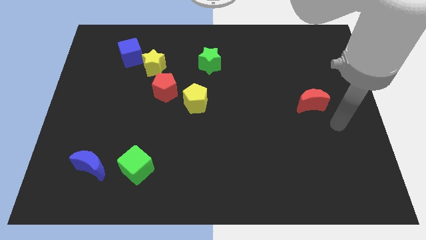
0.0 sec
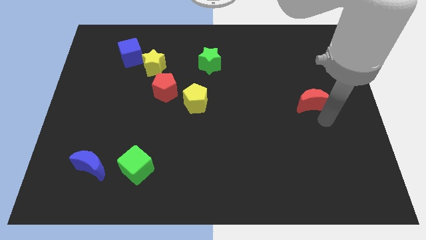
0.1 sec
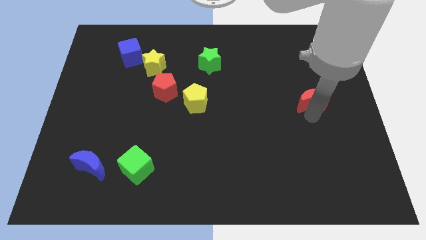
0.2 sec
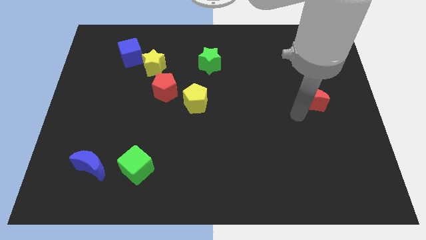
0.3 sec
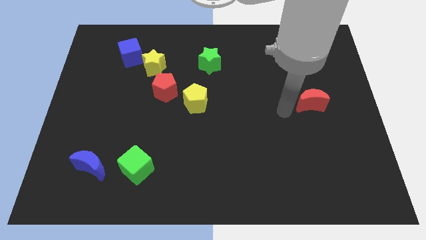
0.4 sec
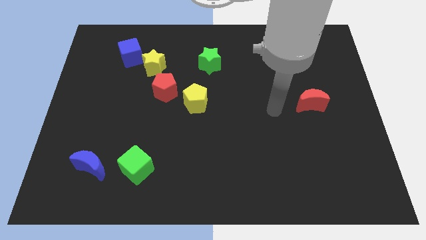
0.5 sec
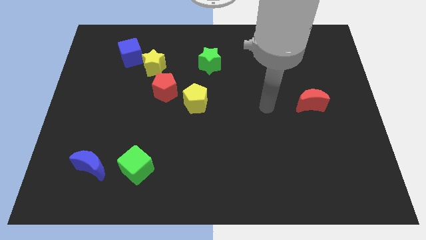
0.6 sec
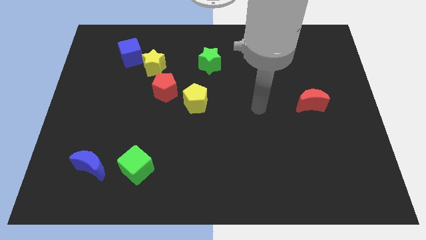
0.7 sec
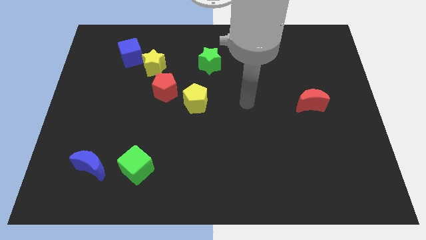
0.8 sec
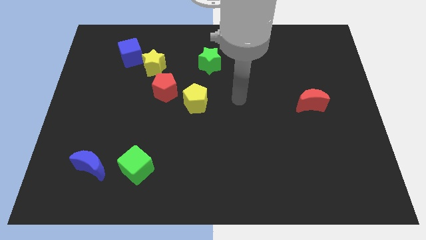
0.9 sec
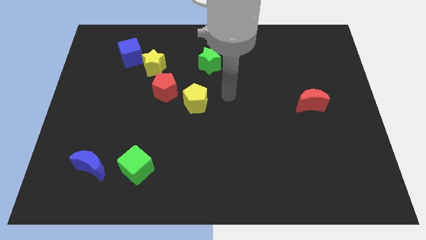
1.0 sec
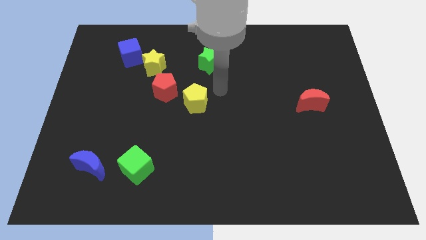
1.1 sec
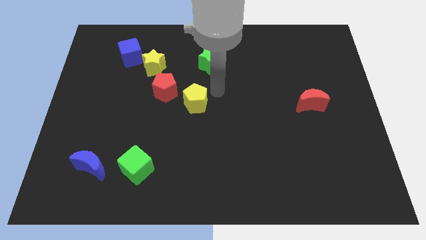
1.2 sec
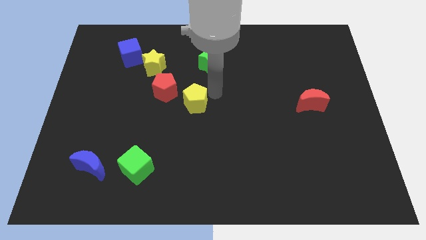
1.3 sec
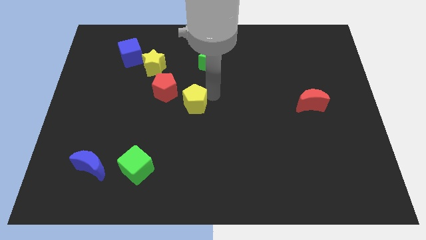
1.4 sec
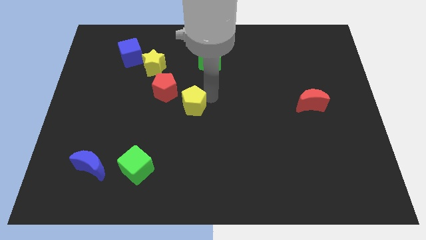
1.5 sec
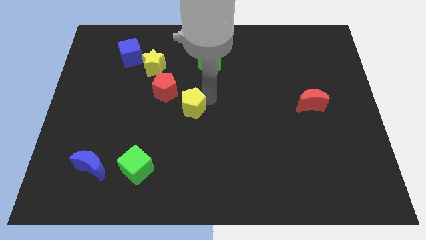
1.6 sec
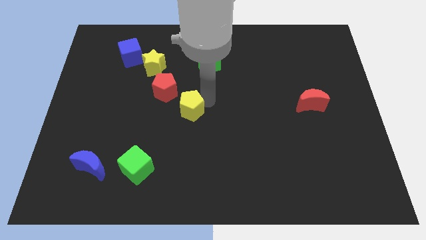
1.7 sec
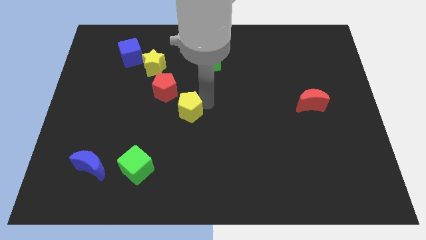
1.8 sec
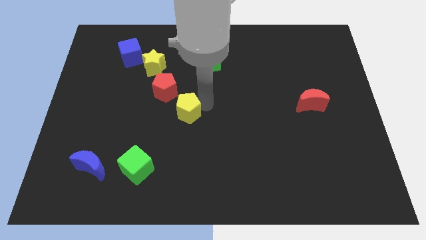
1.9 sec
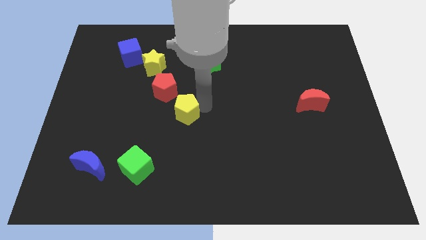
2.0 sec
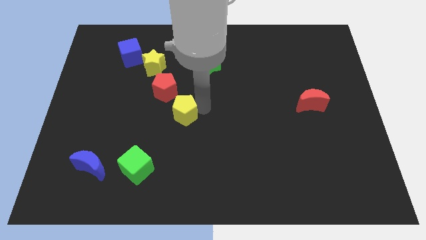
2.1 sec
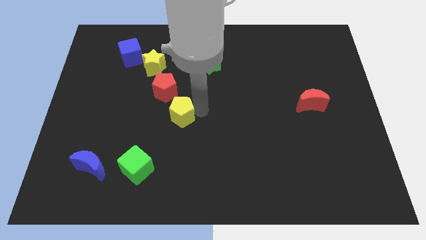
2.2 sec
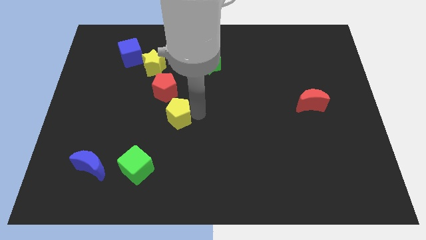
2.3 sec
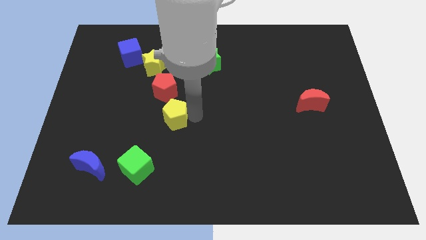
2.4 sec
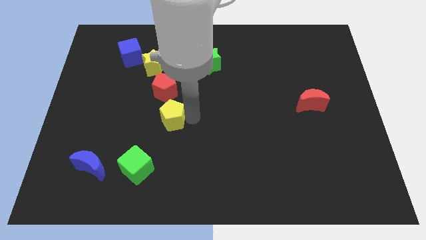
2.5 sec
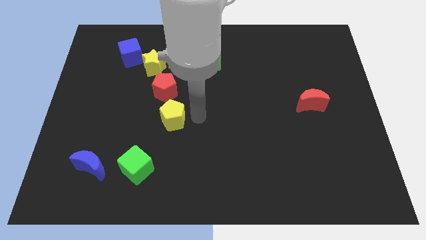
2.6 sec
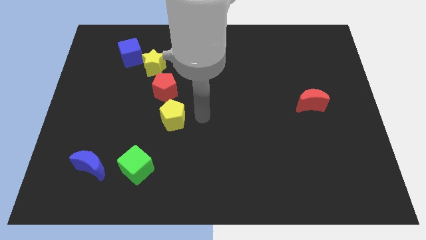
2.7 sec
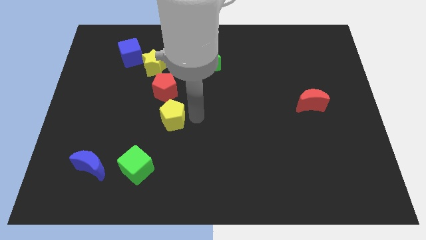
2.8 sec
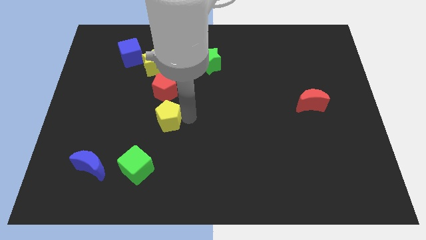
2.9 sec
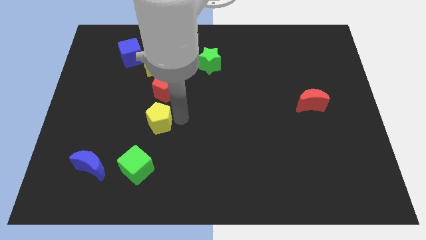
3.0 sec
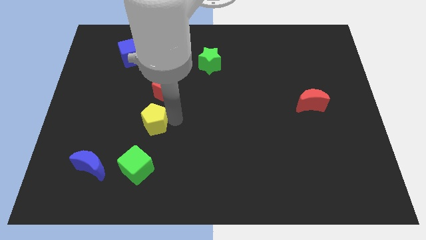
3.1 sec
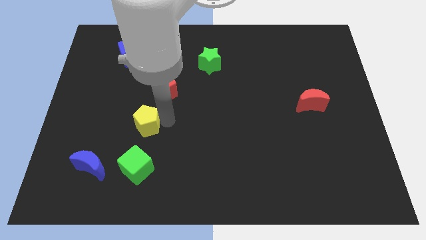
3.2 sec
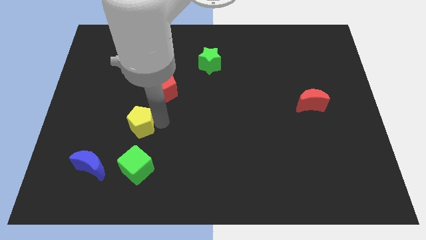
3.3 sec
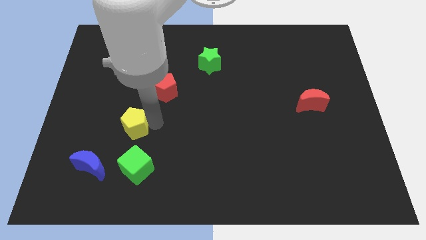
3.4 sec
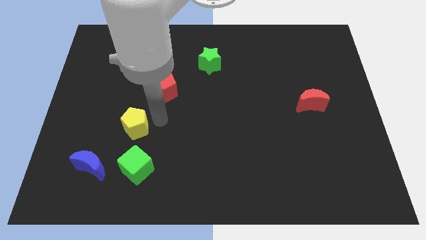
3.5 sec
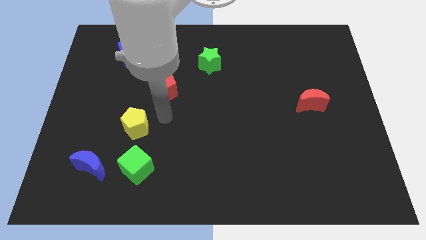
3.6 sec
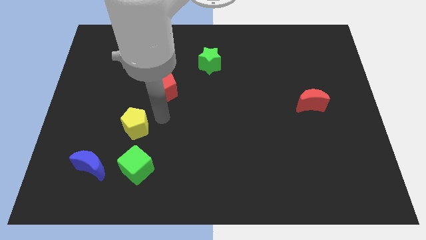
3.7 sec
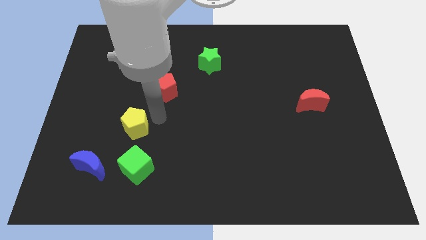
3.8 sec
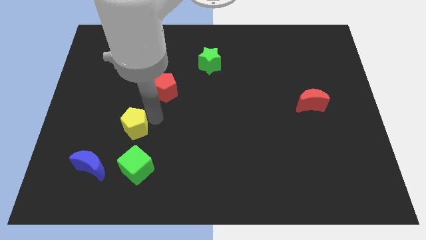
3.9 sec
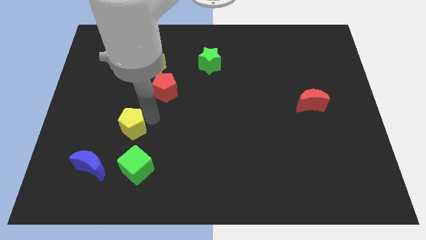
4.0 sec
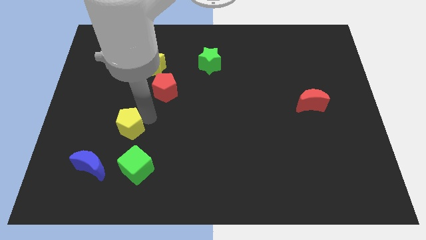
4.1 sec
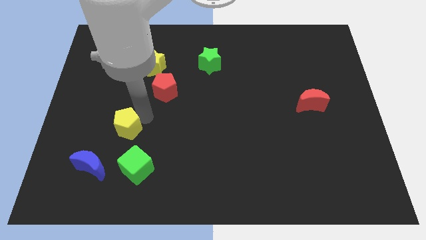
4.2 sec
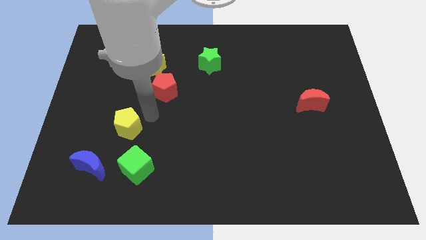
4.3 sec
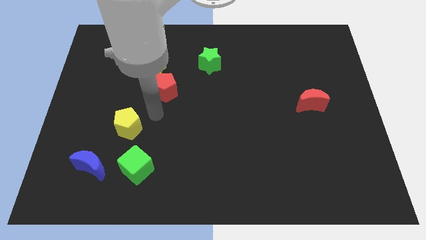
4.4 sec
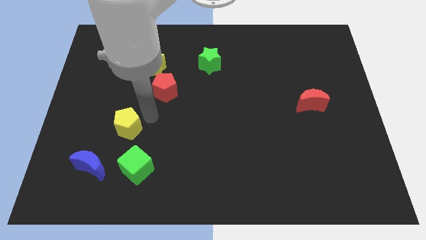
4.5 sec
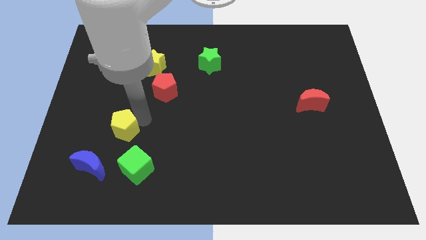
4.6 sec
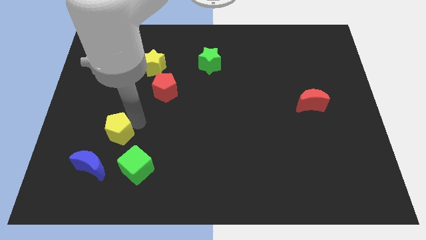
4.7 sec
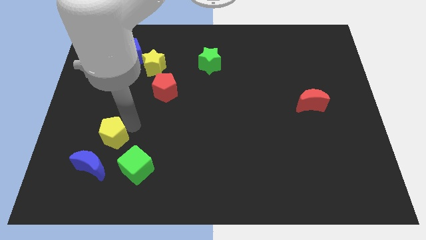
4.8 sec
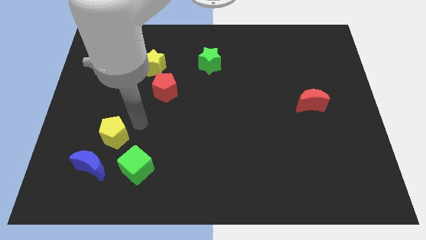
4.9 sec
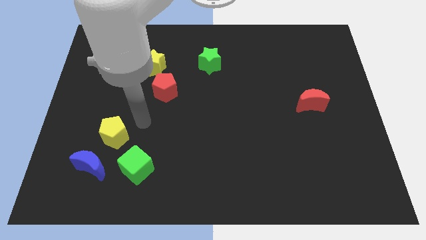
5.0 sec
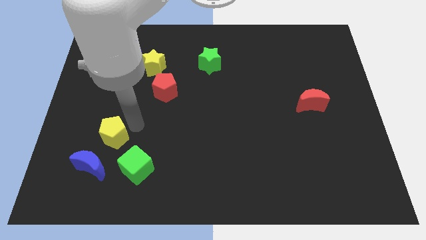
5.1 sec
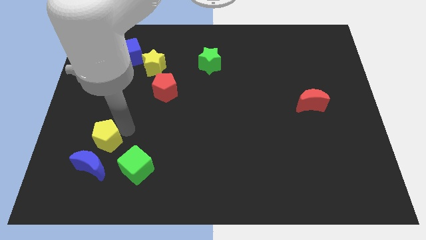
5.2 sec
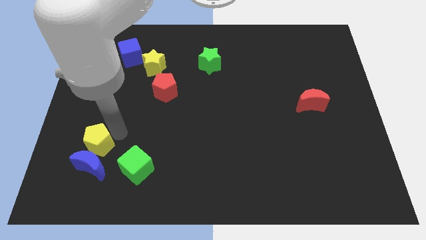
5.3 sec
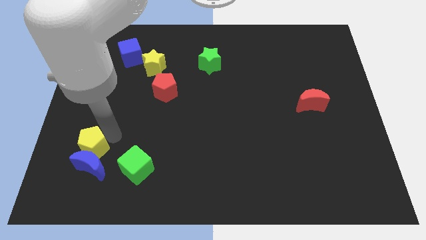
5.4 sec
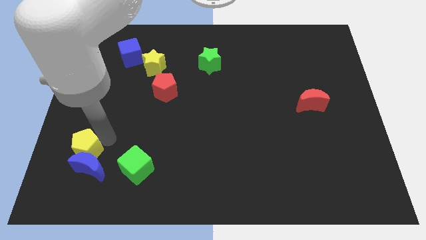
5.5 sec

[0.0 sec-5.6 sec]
slide the yellow pentagon left of the green cube

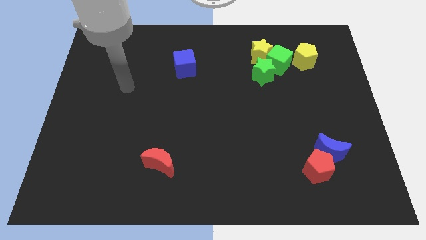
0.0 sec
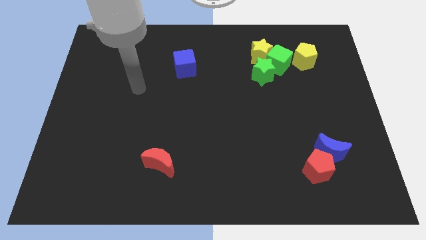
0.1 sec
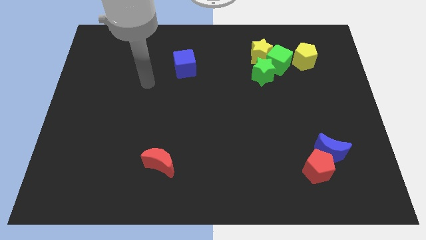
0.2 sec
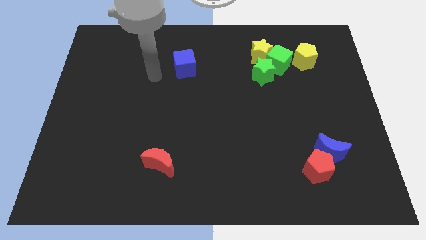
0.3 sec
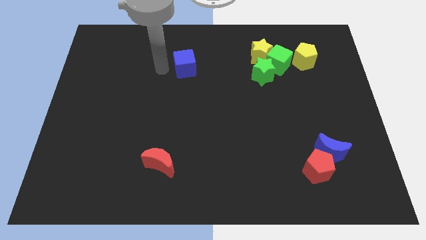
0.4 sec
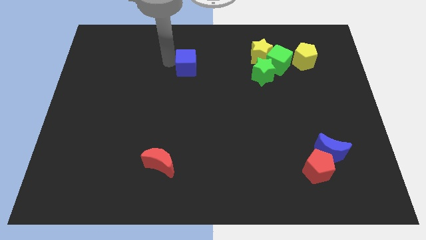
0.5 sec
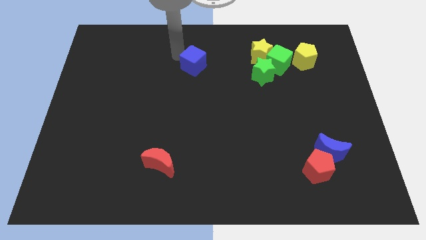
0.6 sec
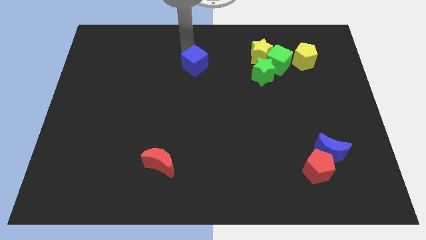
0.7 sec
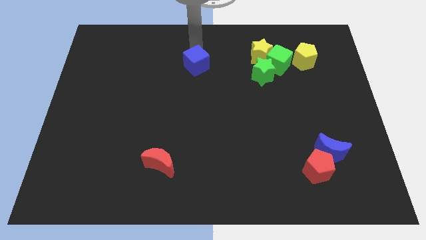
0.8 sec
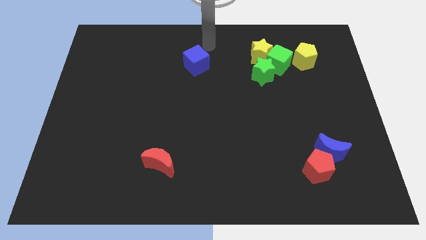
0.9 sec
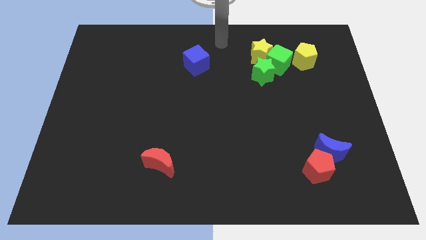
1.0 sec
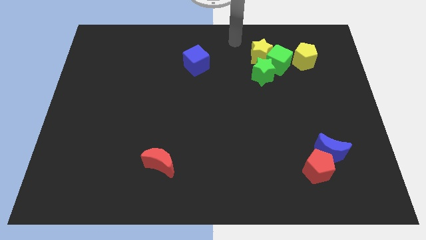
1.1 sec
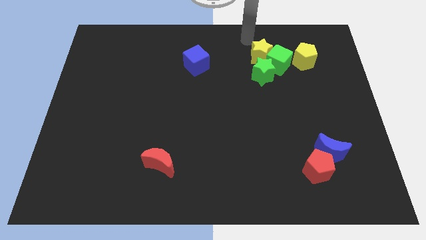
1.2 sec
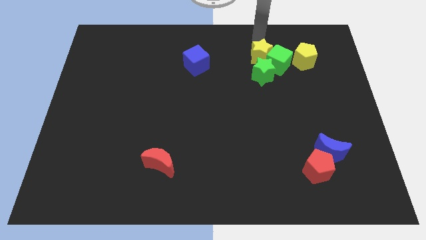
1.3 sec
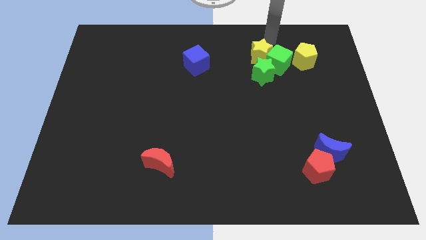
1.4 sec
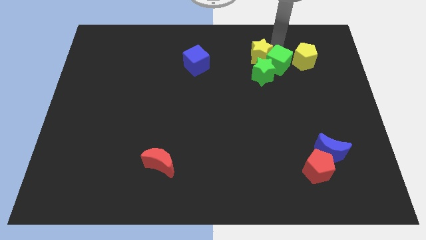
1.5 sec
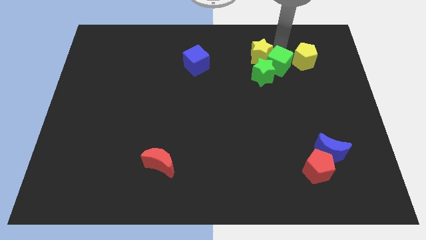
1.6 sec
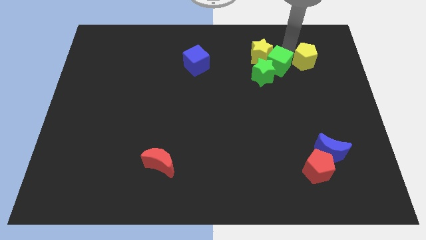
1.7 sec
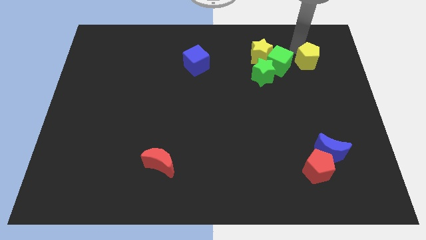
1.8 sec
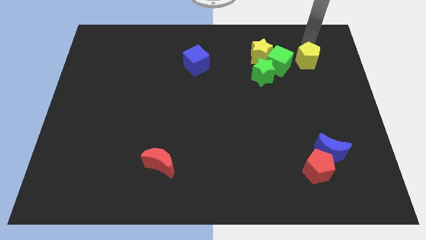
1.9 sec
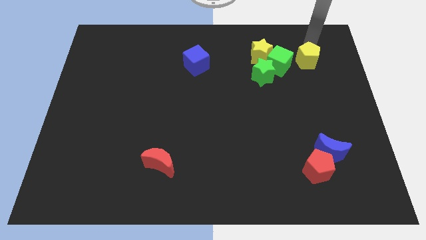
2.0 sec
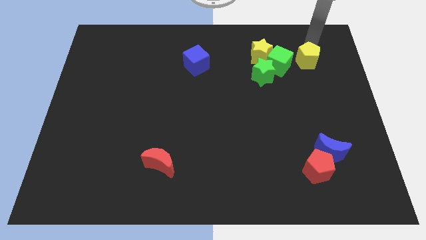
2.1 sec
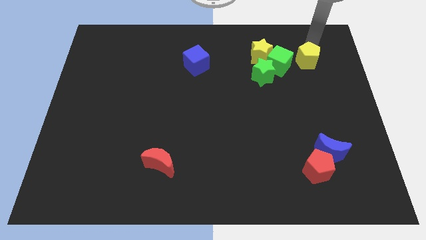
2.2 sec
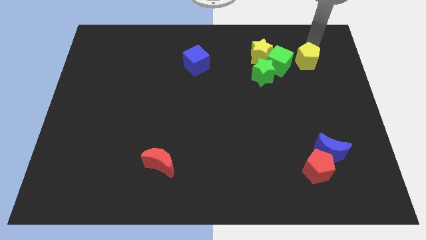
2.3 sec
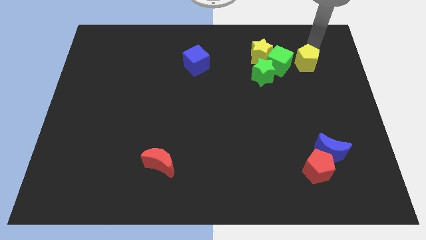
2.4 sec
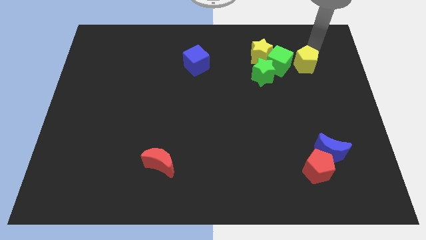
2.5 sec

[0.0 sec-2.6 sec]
move the yellow pentagon diagonally down and to the right of the green cube
